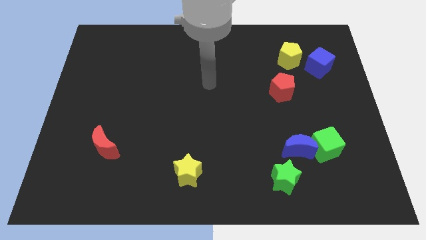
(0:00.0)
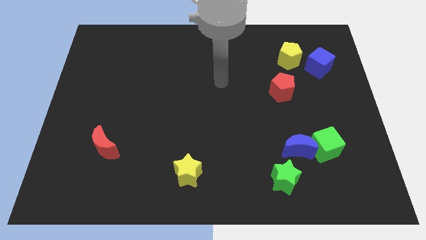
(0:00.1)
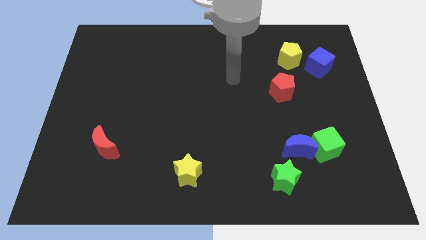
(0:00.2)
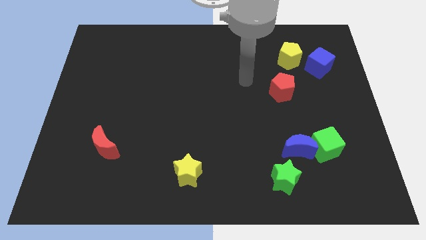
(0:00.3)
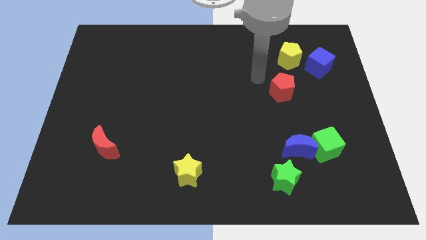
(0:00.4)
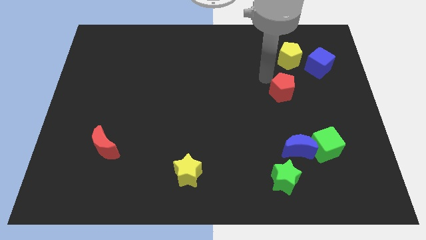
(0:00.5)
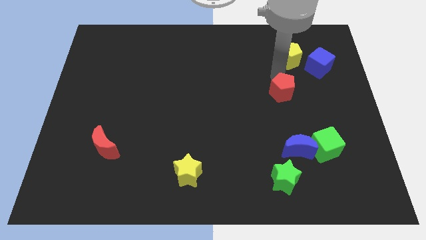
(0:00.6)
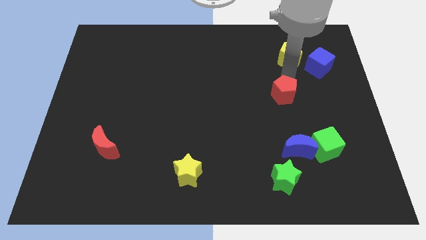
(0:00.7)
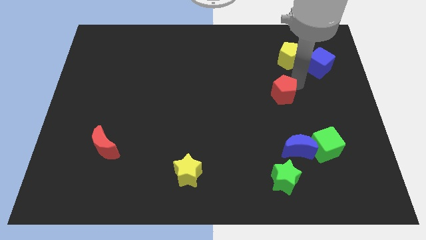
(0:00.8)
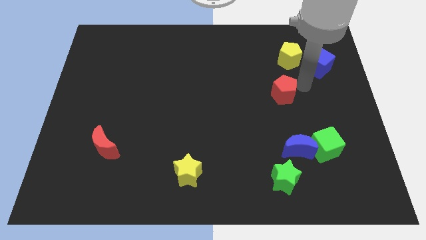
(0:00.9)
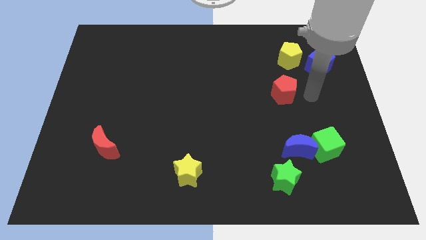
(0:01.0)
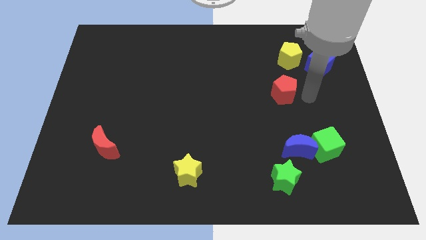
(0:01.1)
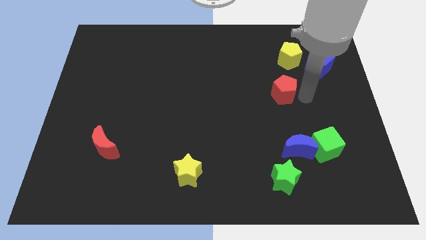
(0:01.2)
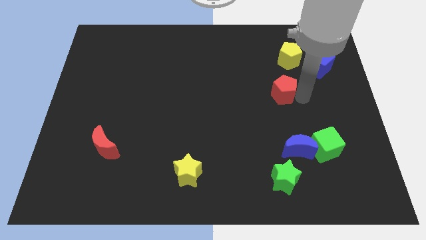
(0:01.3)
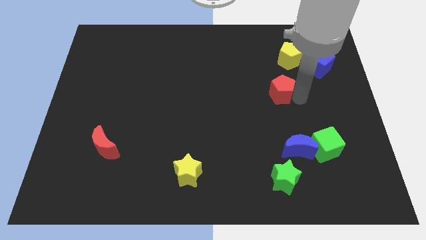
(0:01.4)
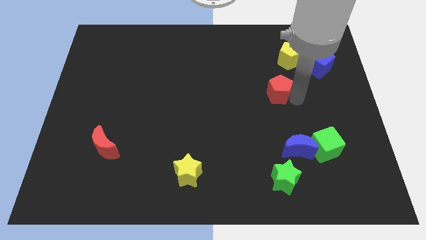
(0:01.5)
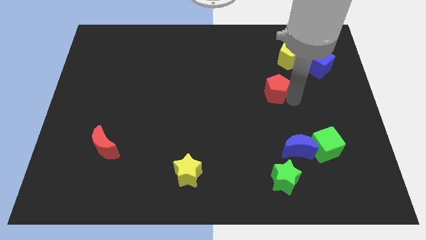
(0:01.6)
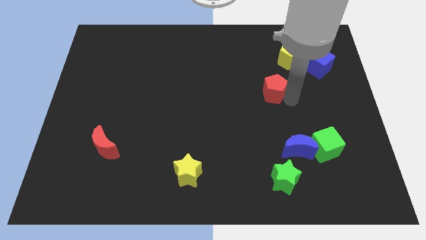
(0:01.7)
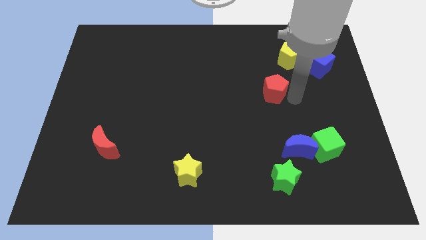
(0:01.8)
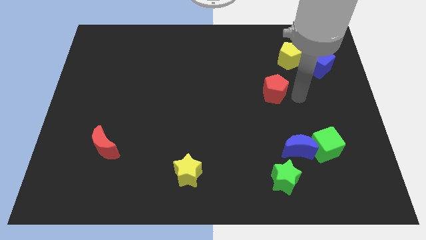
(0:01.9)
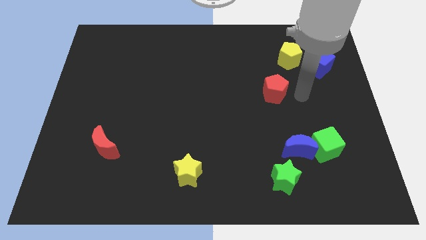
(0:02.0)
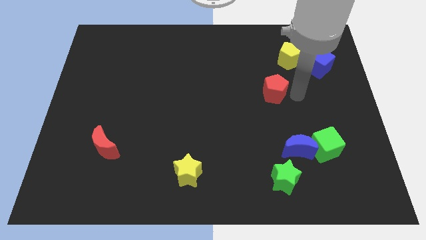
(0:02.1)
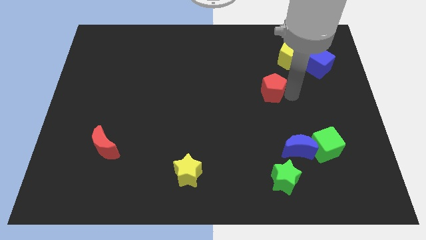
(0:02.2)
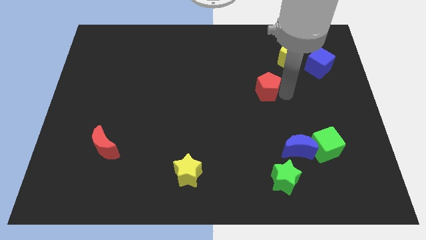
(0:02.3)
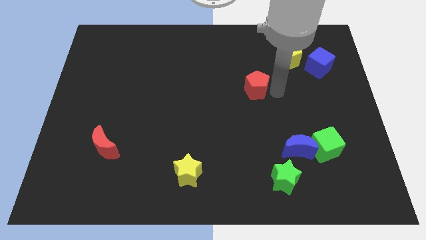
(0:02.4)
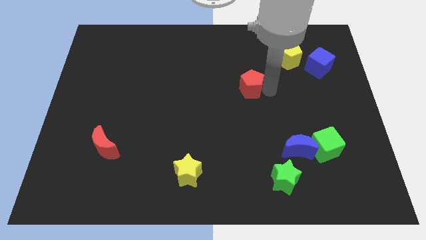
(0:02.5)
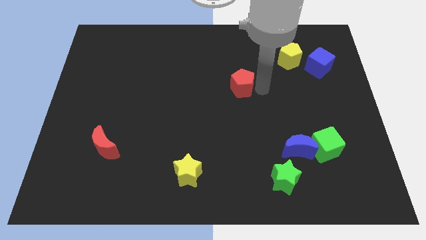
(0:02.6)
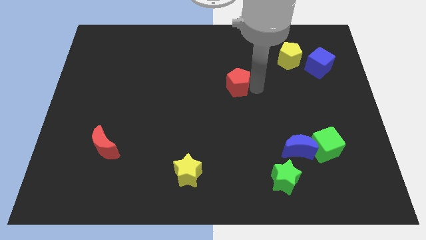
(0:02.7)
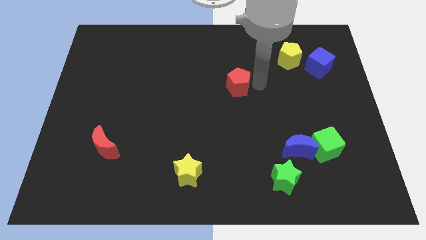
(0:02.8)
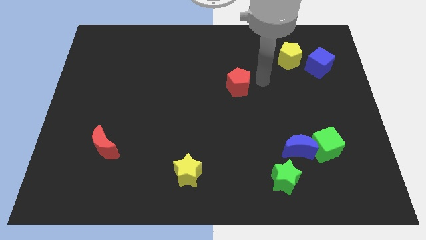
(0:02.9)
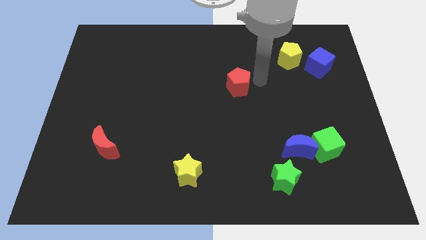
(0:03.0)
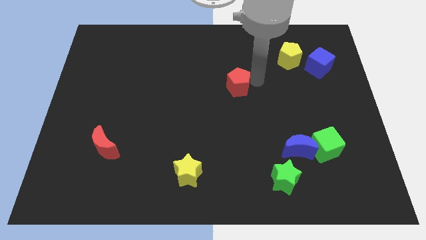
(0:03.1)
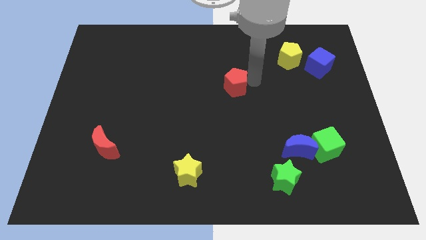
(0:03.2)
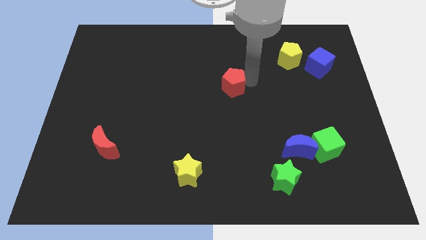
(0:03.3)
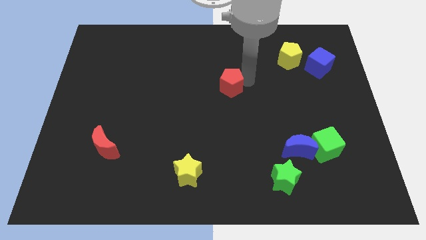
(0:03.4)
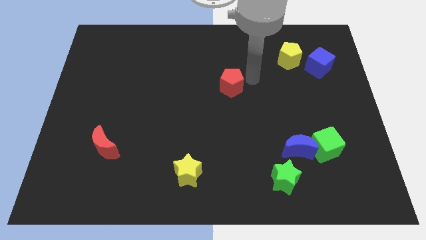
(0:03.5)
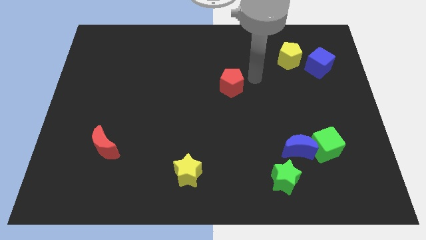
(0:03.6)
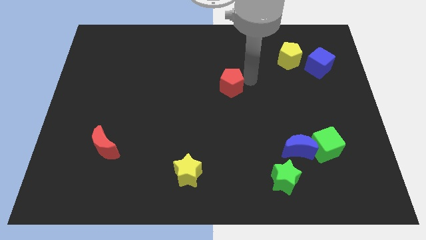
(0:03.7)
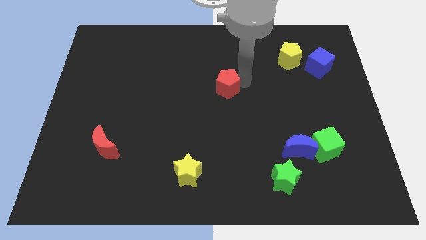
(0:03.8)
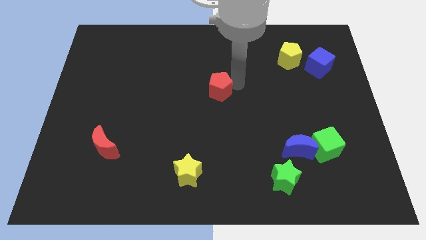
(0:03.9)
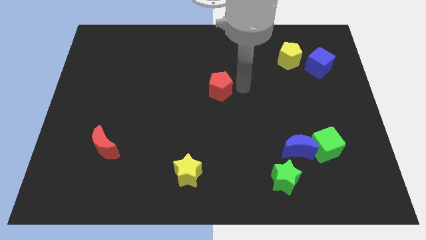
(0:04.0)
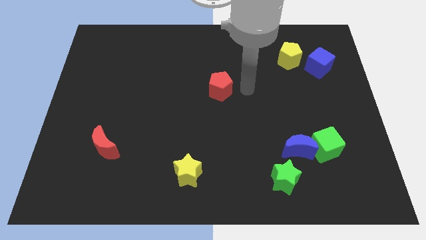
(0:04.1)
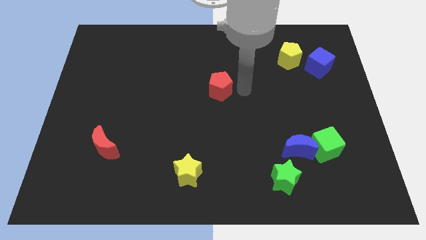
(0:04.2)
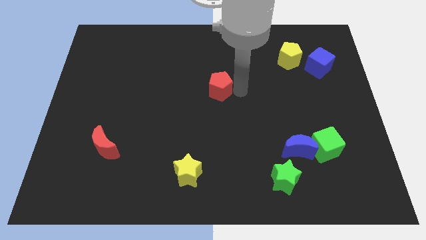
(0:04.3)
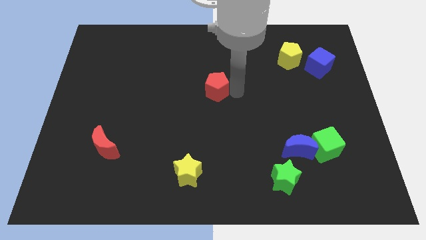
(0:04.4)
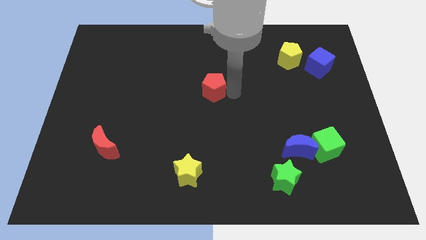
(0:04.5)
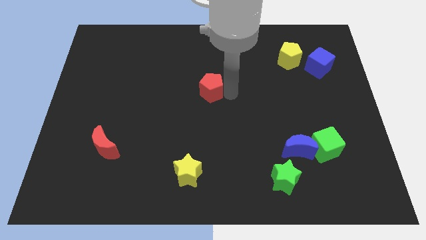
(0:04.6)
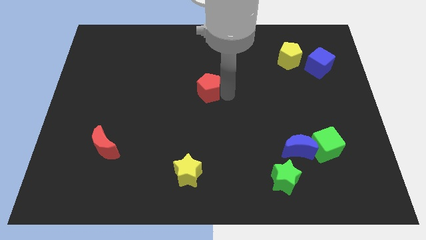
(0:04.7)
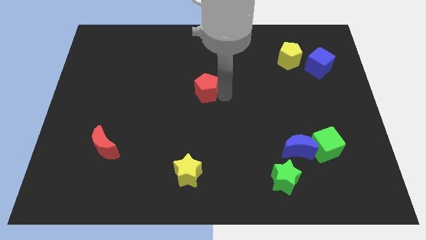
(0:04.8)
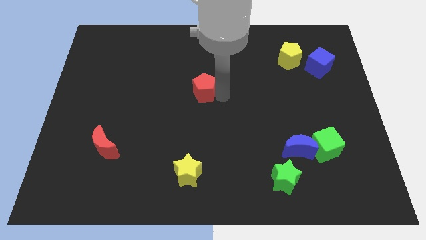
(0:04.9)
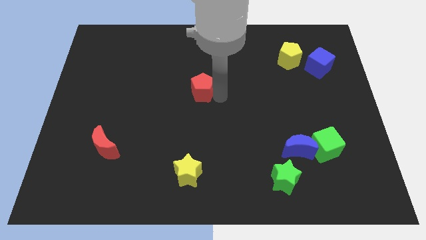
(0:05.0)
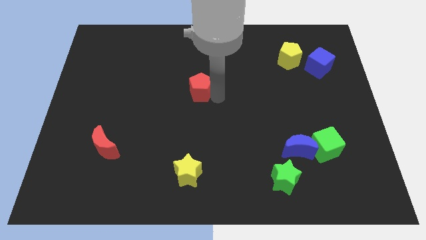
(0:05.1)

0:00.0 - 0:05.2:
slide the red pentagon left

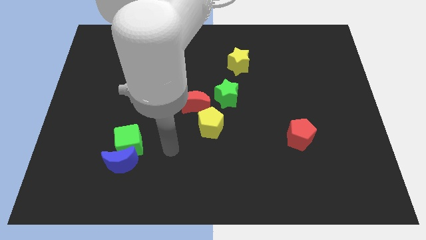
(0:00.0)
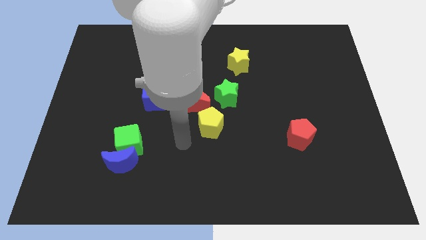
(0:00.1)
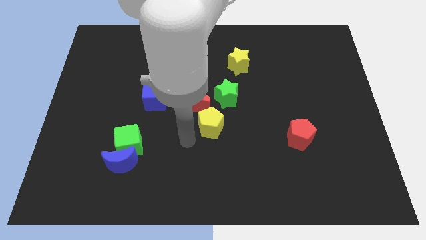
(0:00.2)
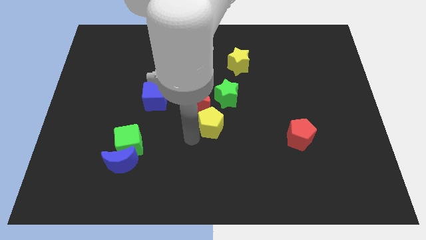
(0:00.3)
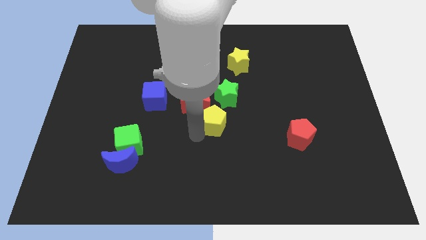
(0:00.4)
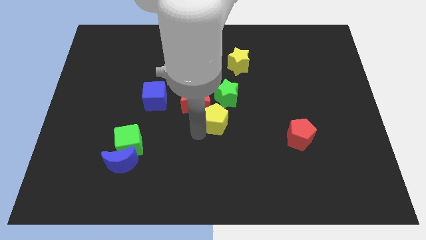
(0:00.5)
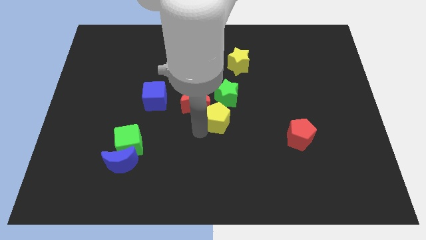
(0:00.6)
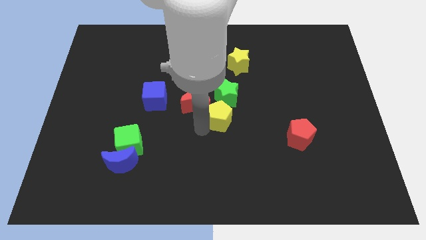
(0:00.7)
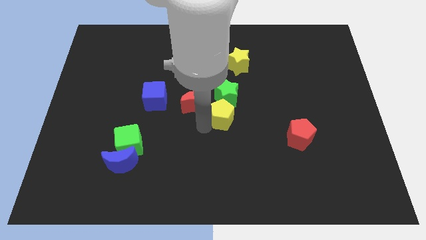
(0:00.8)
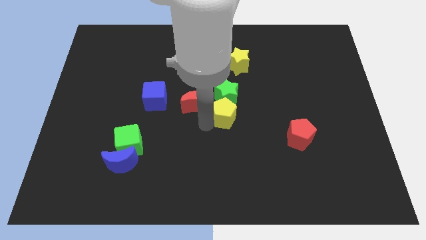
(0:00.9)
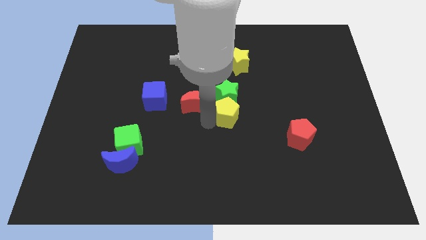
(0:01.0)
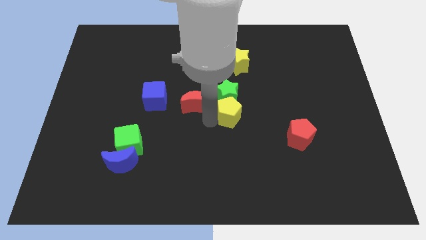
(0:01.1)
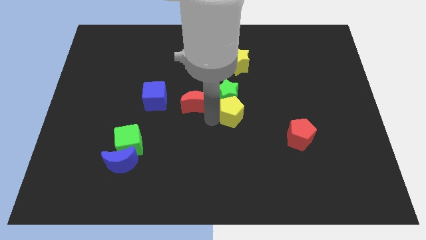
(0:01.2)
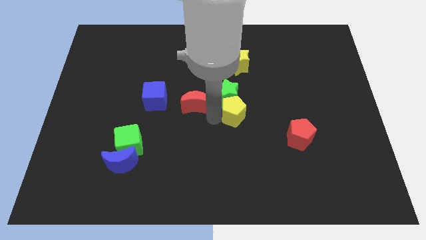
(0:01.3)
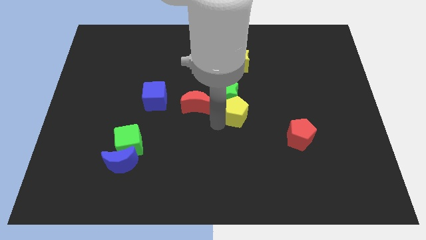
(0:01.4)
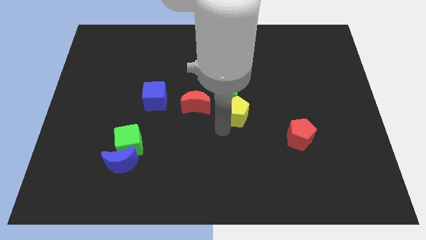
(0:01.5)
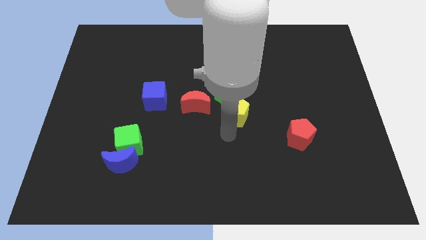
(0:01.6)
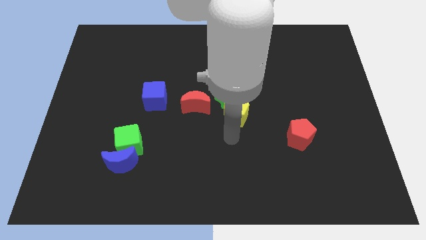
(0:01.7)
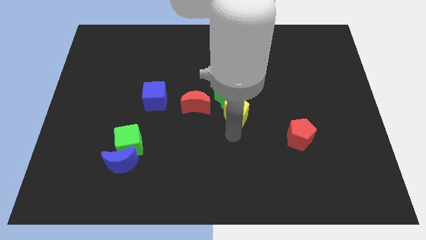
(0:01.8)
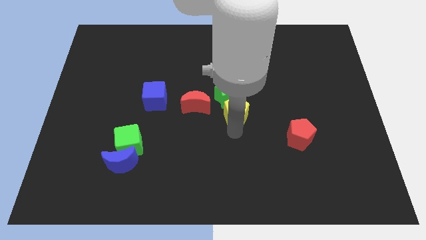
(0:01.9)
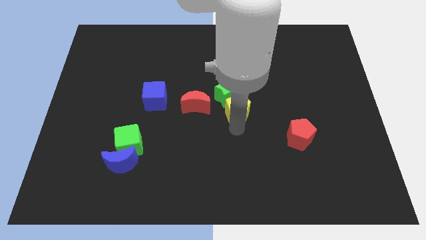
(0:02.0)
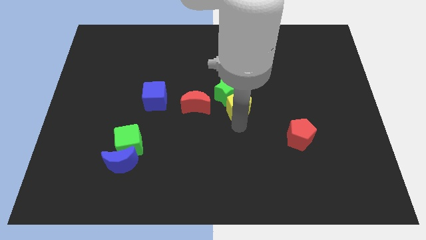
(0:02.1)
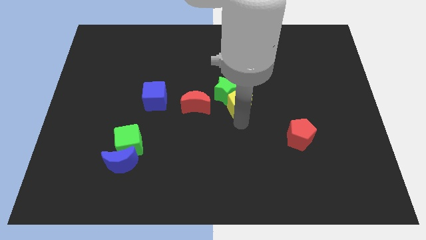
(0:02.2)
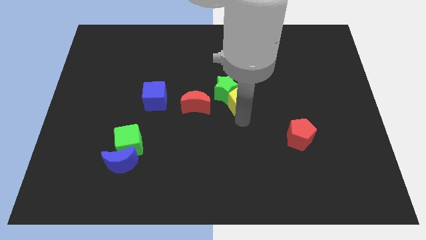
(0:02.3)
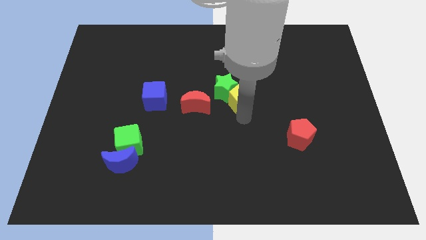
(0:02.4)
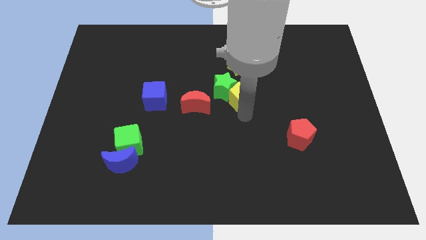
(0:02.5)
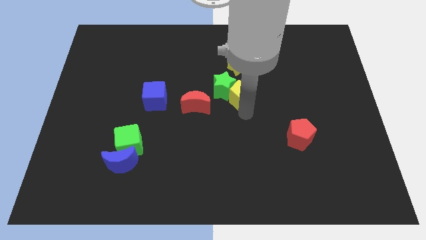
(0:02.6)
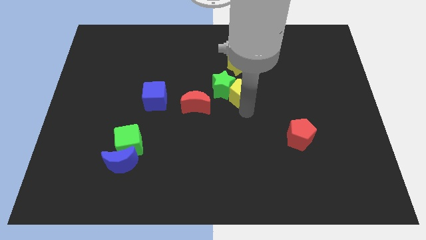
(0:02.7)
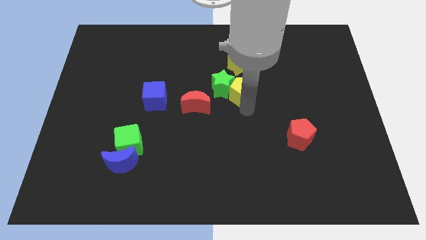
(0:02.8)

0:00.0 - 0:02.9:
slightly slide the yellow pentagon up

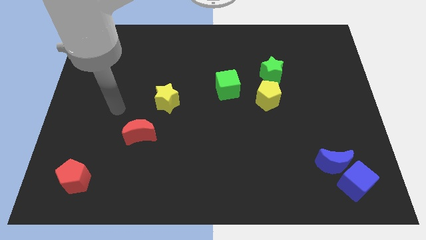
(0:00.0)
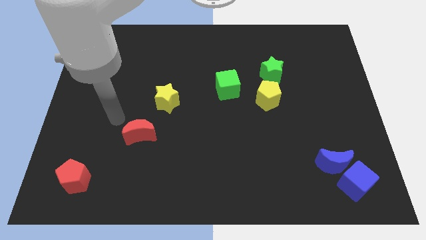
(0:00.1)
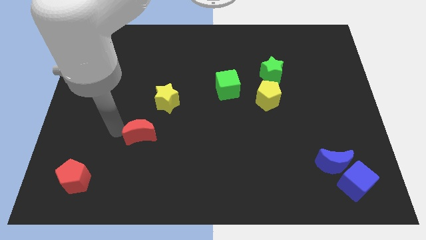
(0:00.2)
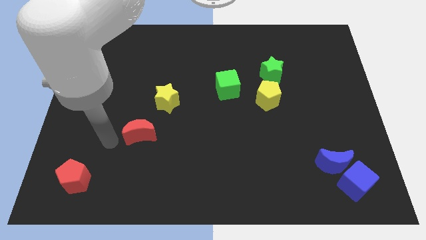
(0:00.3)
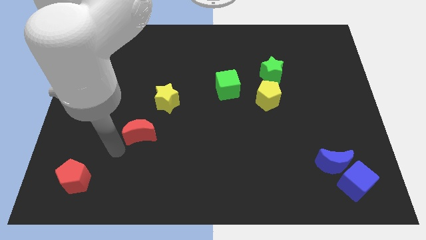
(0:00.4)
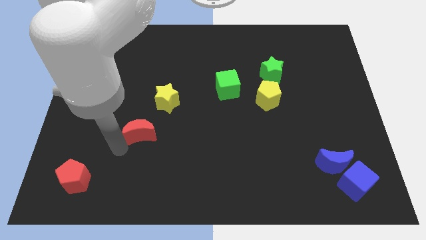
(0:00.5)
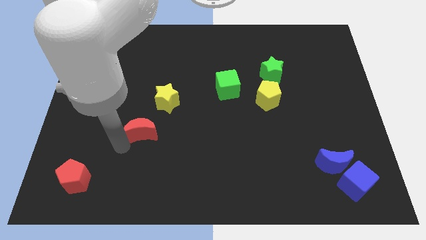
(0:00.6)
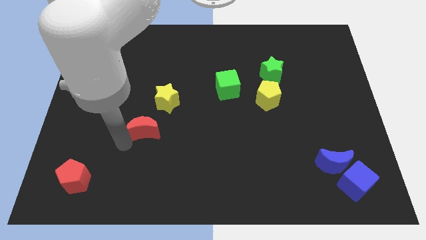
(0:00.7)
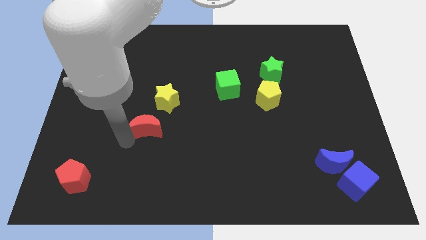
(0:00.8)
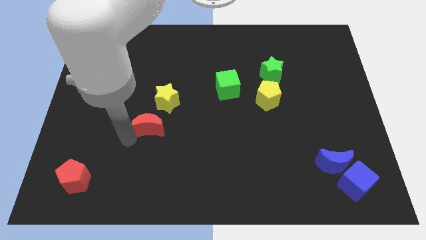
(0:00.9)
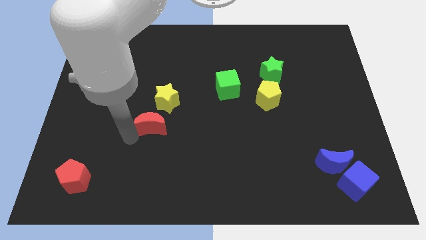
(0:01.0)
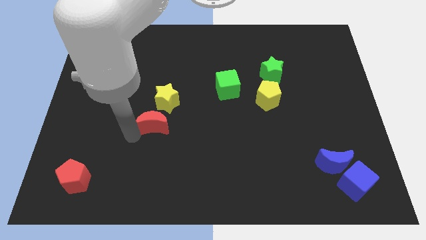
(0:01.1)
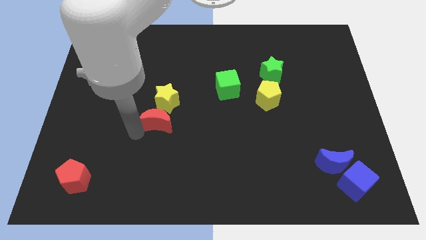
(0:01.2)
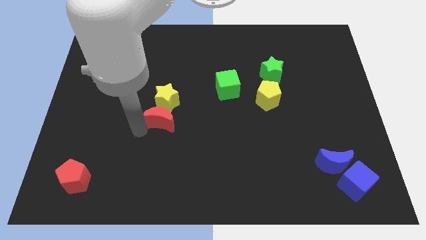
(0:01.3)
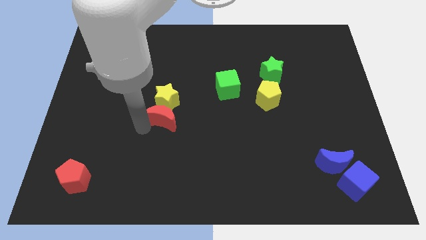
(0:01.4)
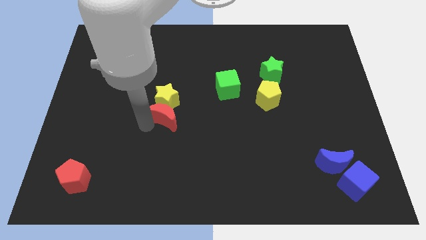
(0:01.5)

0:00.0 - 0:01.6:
slightly move the red moon diagonally up and to the right
